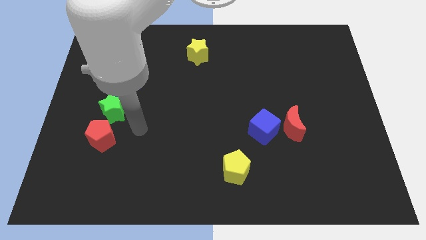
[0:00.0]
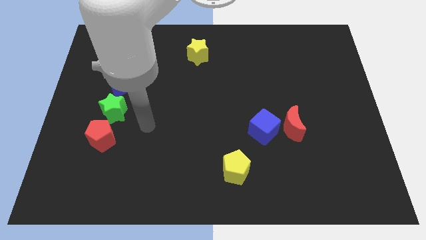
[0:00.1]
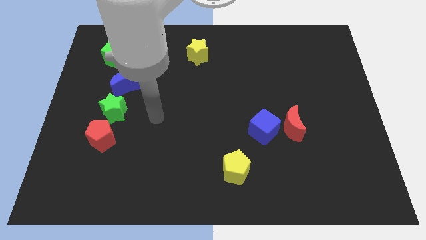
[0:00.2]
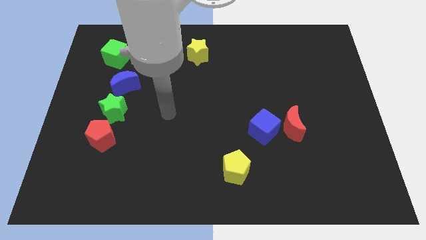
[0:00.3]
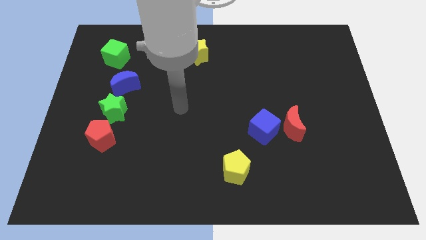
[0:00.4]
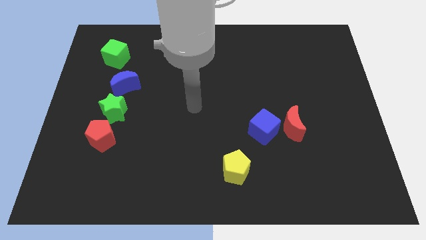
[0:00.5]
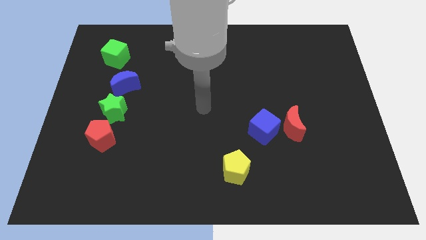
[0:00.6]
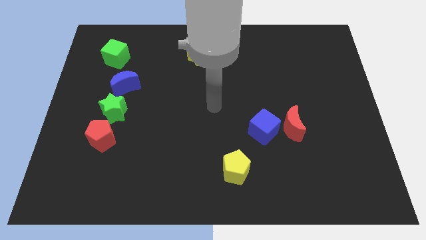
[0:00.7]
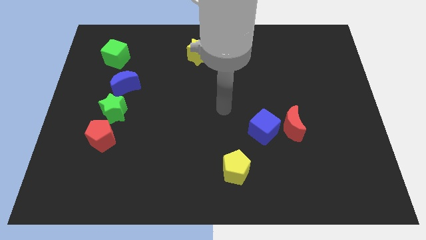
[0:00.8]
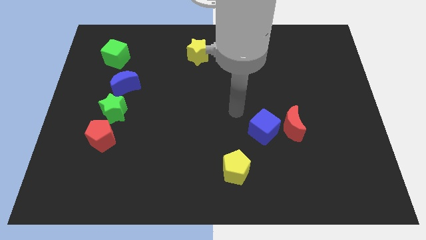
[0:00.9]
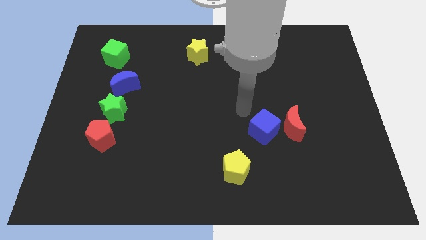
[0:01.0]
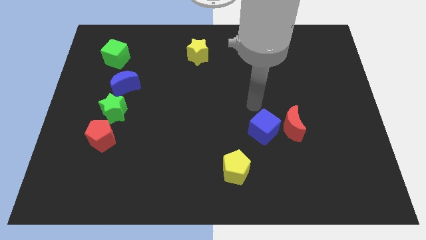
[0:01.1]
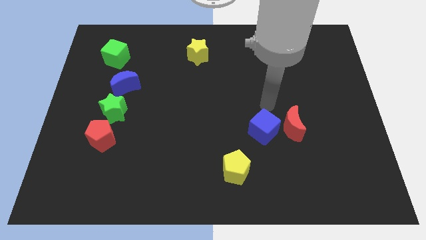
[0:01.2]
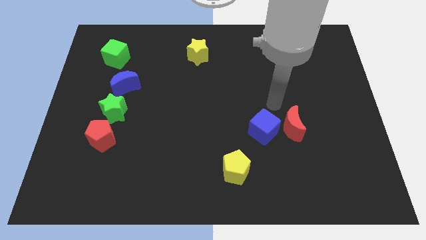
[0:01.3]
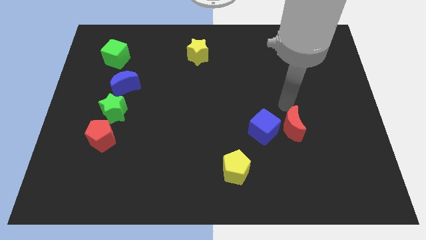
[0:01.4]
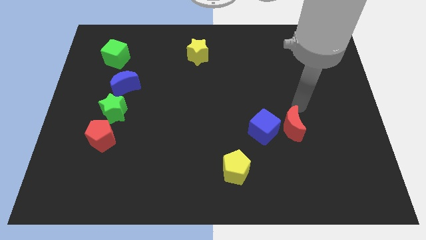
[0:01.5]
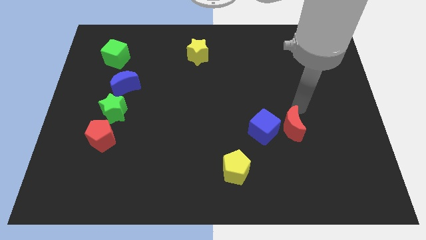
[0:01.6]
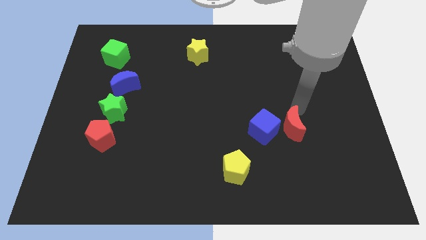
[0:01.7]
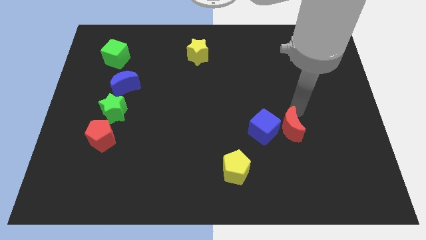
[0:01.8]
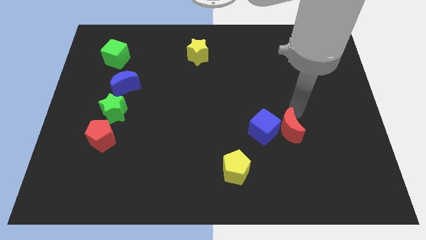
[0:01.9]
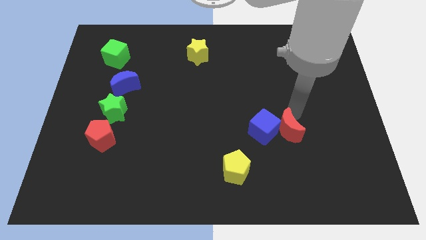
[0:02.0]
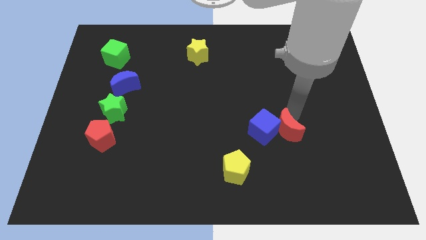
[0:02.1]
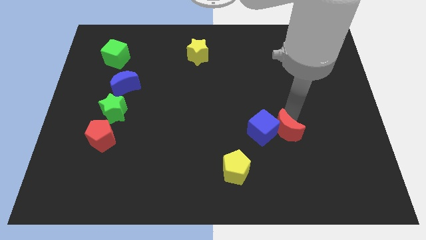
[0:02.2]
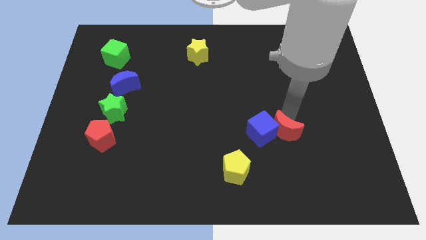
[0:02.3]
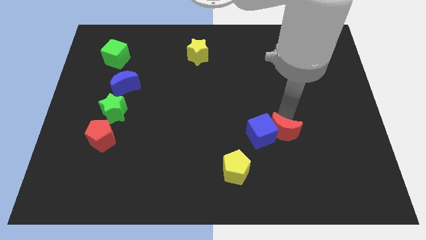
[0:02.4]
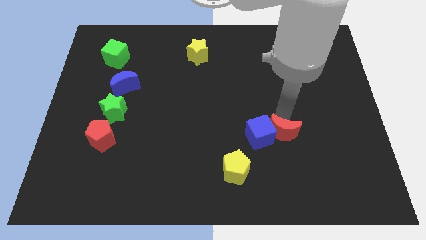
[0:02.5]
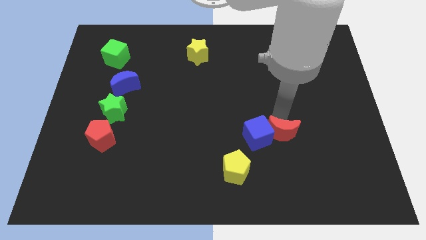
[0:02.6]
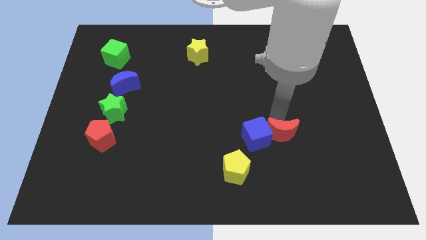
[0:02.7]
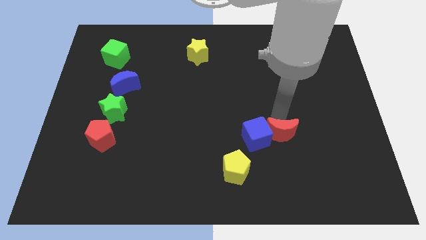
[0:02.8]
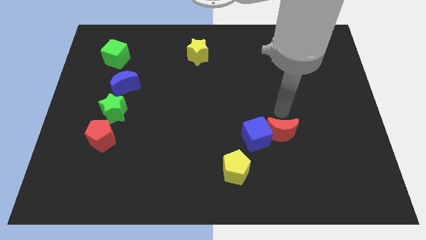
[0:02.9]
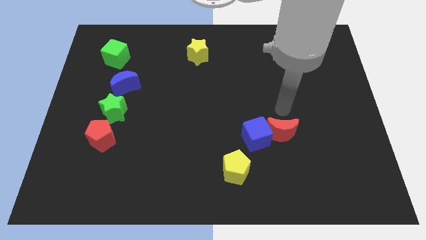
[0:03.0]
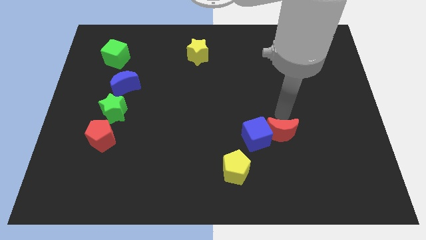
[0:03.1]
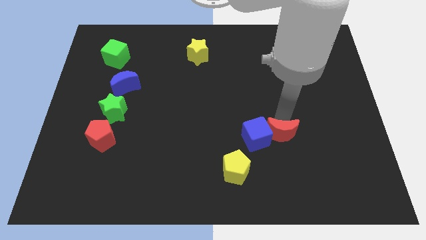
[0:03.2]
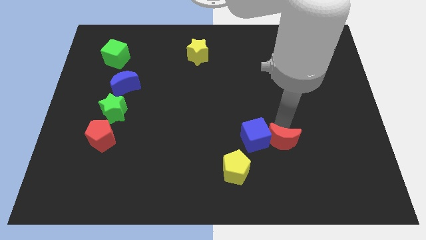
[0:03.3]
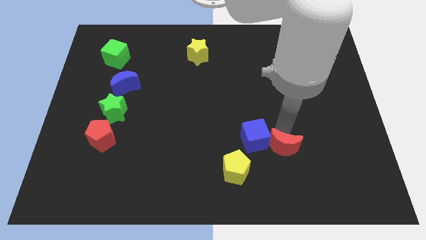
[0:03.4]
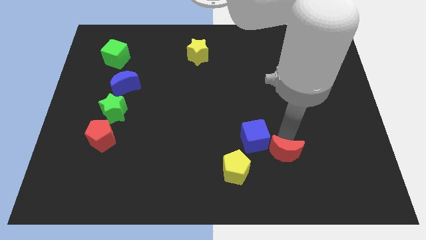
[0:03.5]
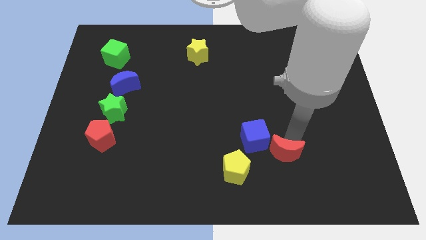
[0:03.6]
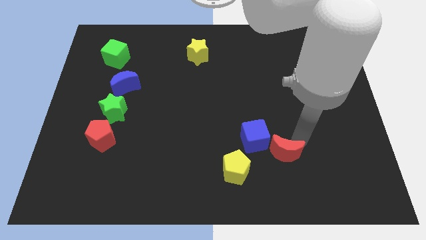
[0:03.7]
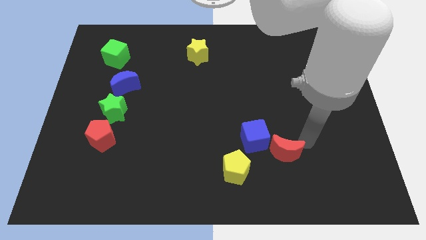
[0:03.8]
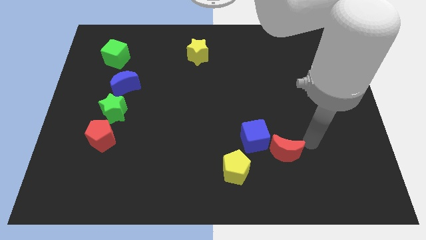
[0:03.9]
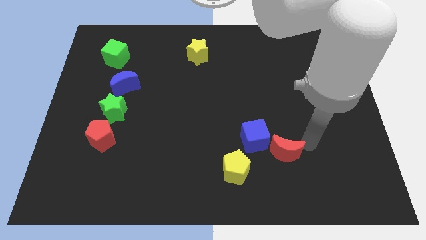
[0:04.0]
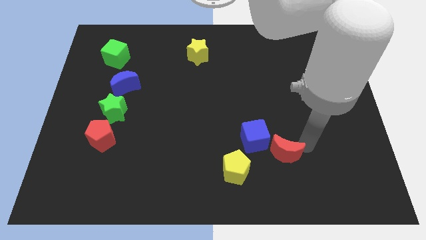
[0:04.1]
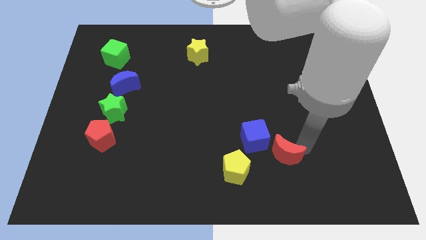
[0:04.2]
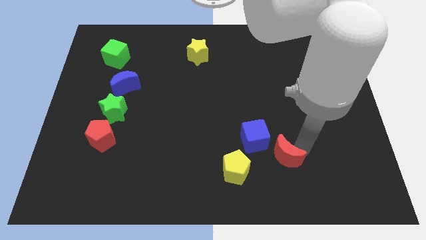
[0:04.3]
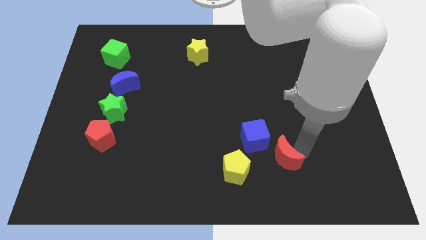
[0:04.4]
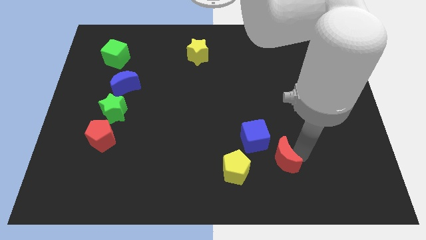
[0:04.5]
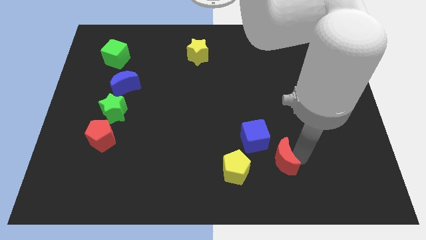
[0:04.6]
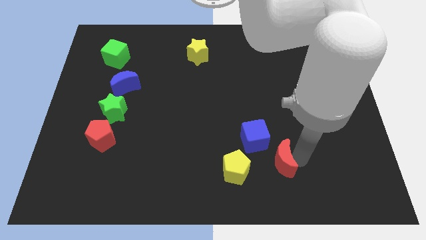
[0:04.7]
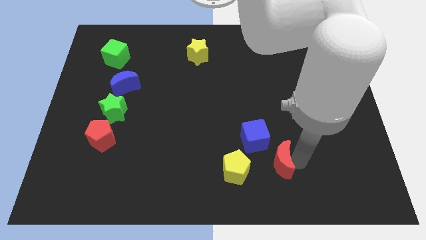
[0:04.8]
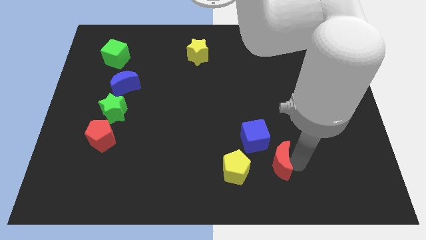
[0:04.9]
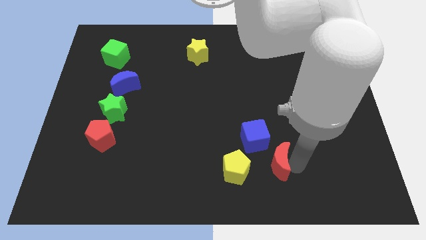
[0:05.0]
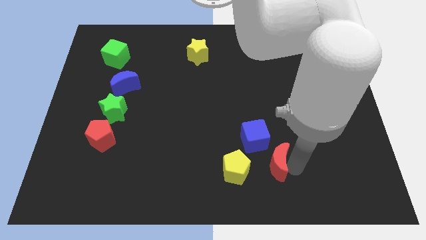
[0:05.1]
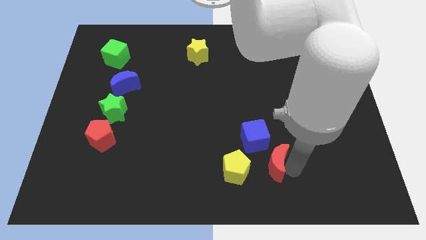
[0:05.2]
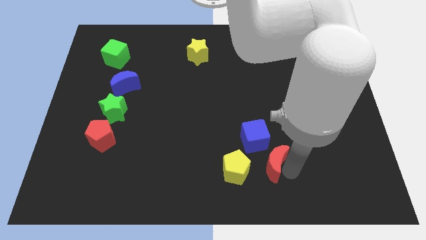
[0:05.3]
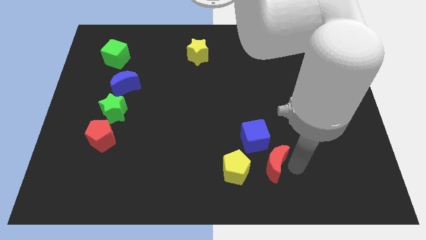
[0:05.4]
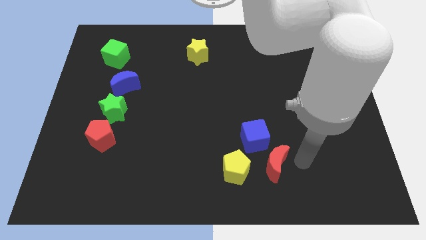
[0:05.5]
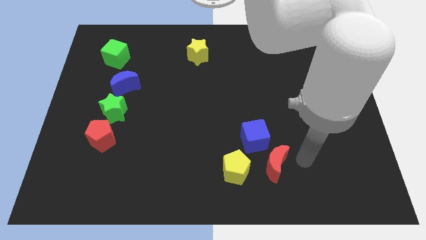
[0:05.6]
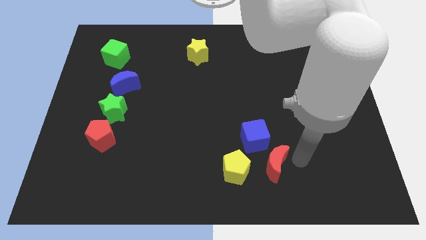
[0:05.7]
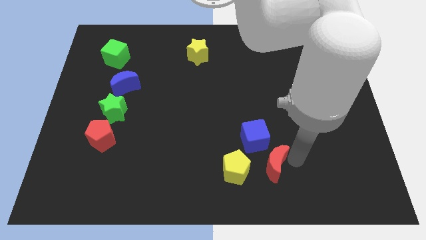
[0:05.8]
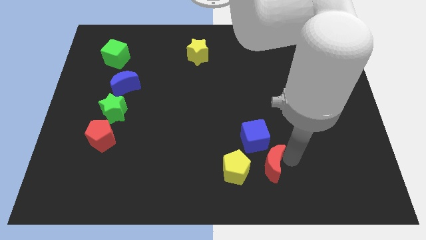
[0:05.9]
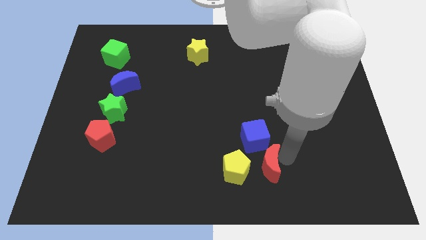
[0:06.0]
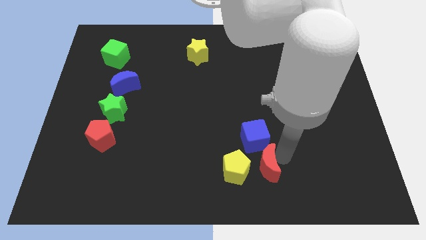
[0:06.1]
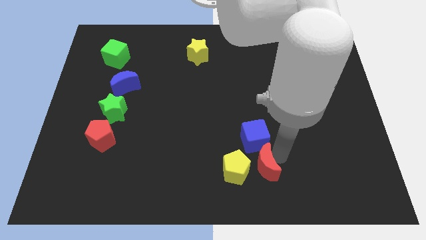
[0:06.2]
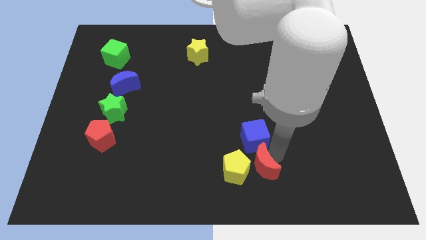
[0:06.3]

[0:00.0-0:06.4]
move the red moon close to the yellow pentagon

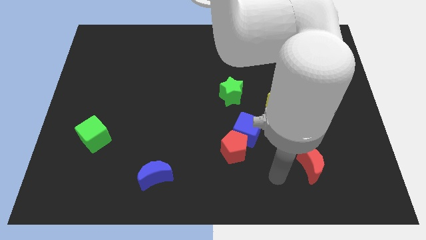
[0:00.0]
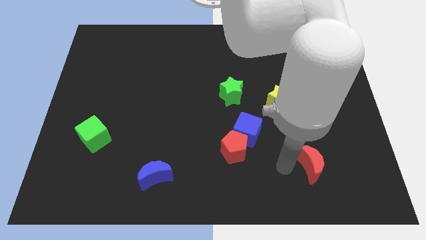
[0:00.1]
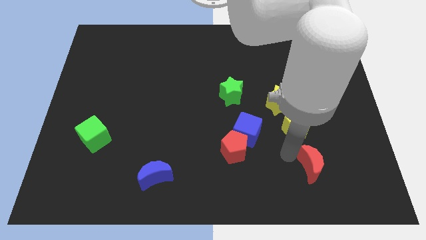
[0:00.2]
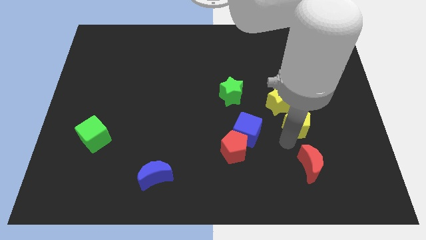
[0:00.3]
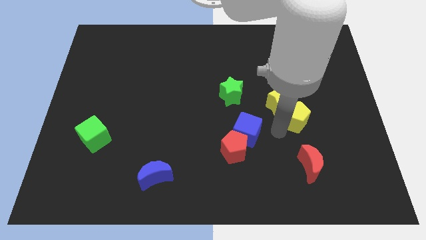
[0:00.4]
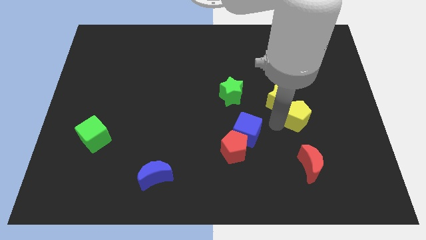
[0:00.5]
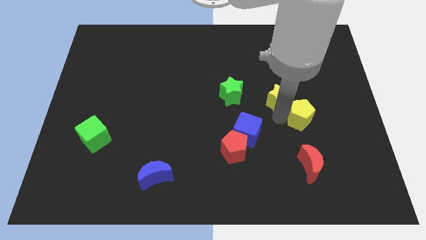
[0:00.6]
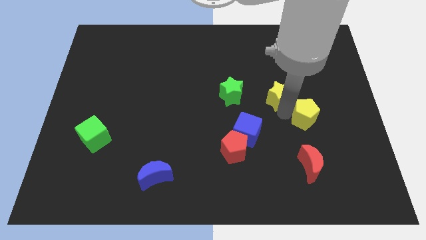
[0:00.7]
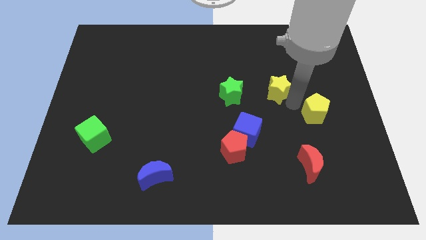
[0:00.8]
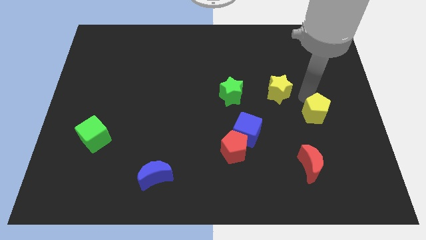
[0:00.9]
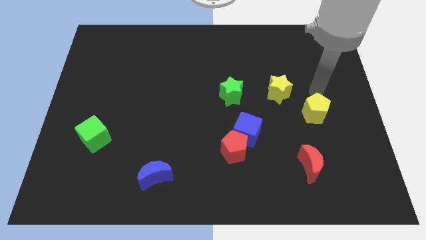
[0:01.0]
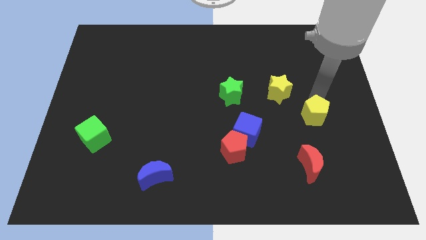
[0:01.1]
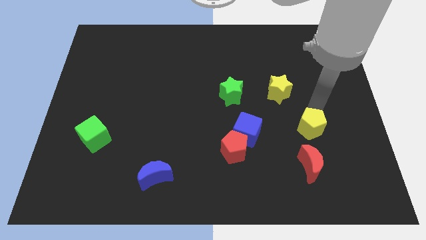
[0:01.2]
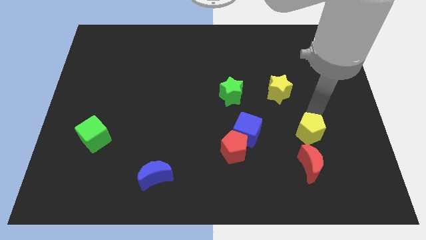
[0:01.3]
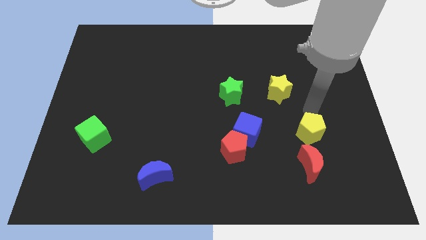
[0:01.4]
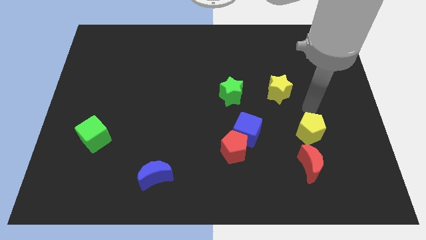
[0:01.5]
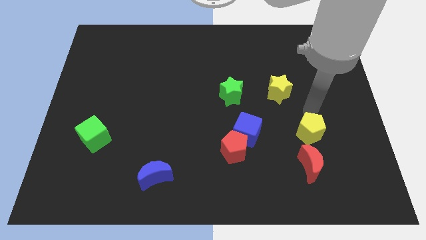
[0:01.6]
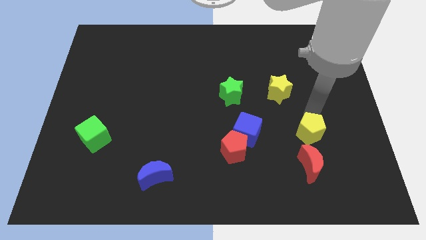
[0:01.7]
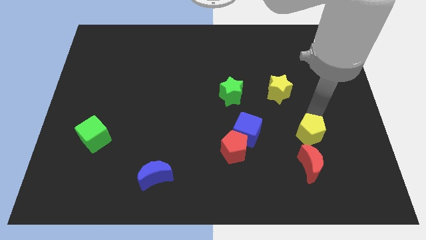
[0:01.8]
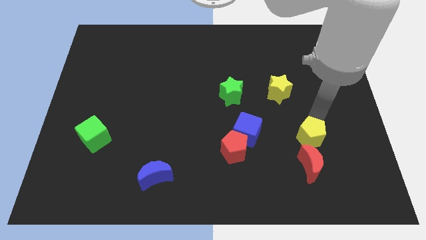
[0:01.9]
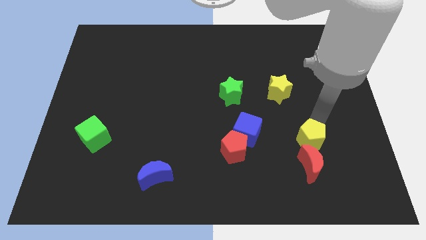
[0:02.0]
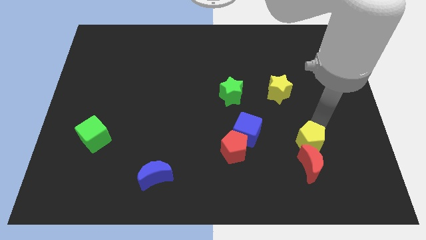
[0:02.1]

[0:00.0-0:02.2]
move the yellow pentagon towards the red moon
